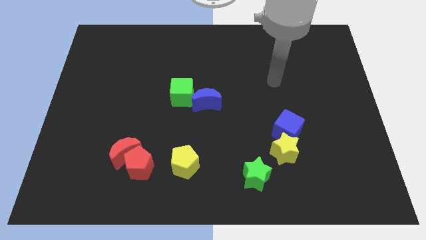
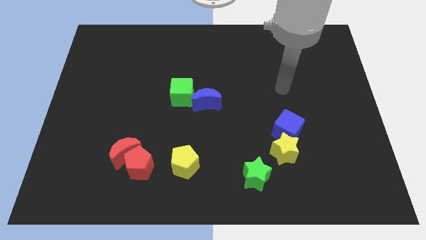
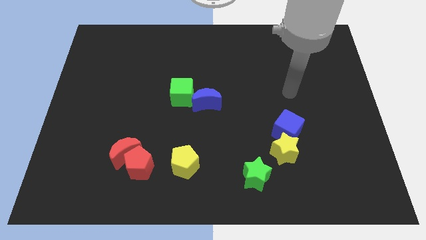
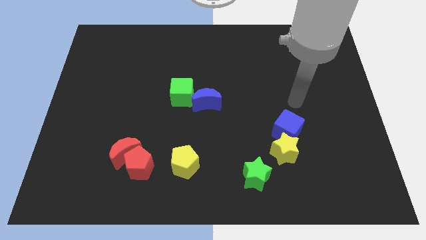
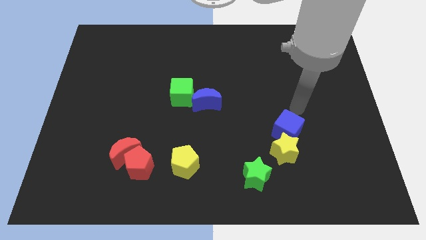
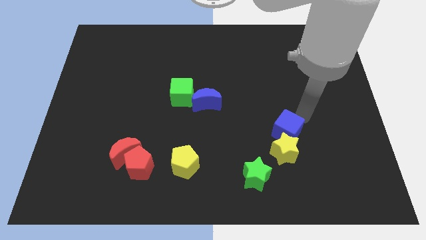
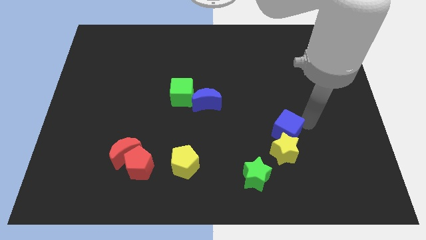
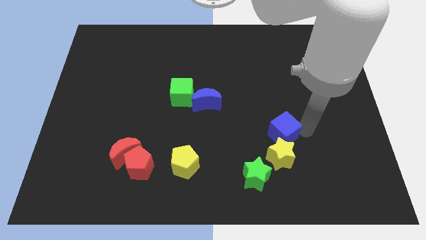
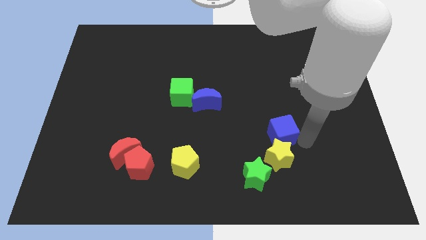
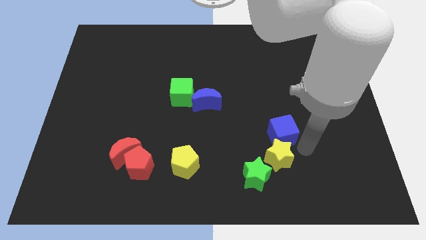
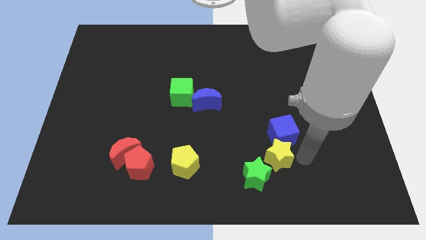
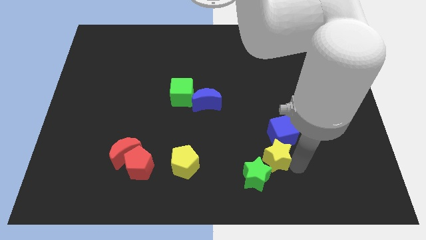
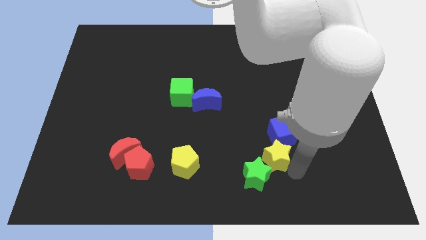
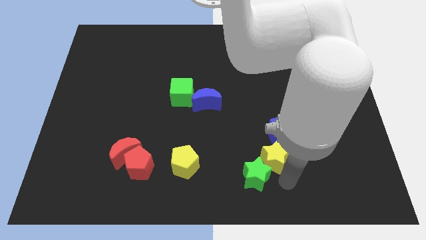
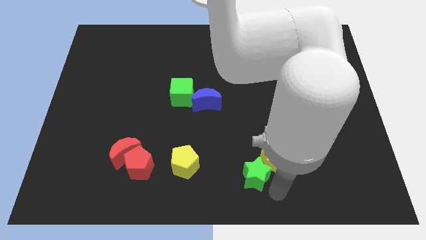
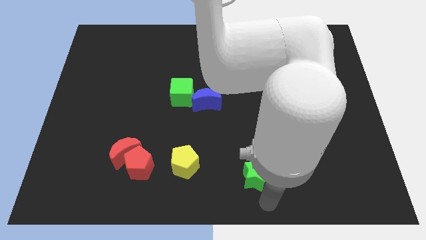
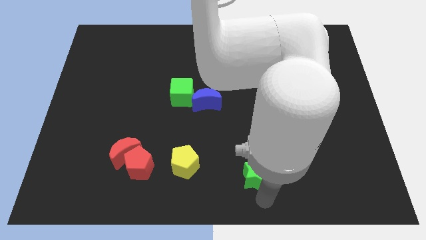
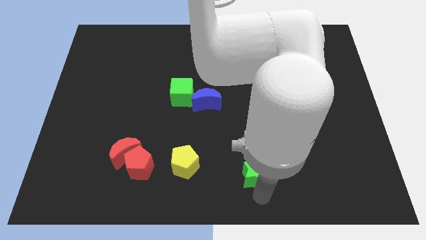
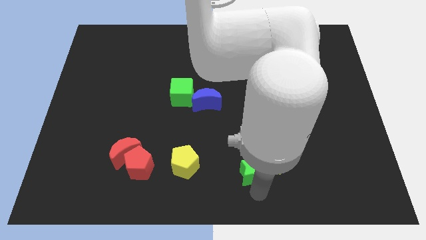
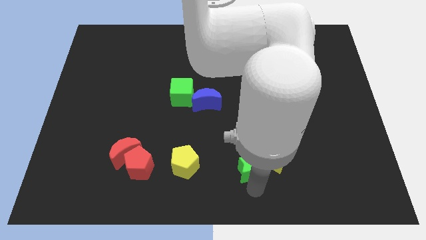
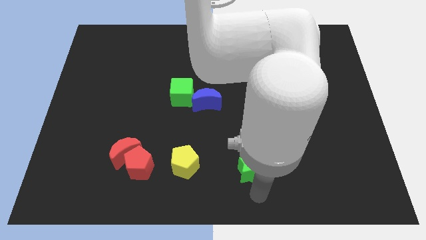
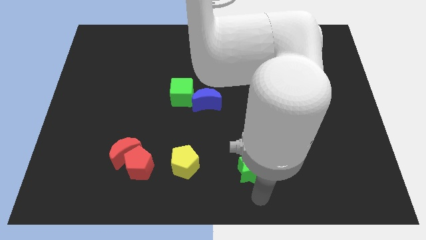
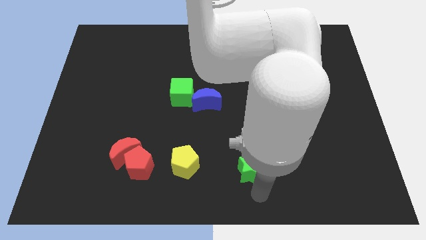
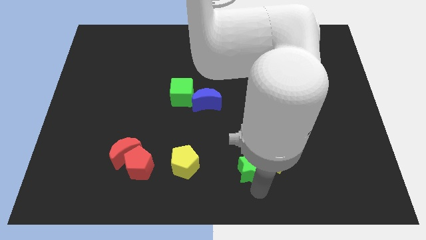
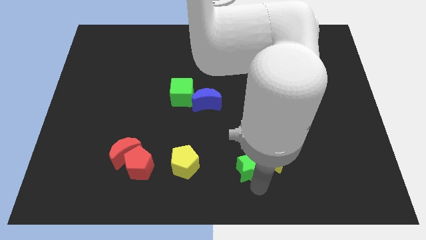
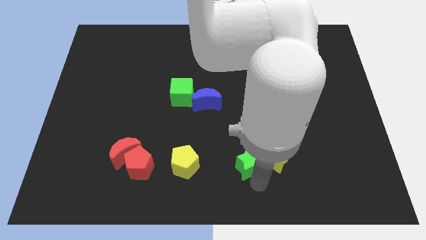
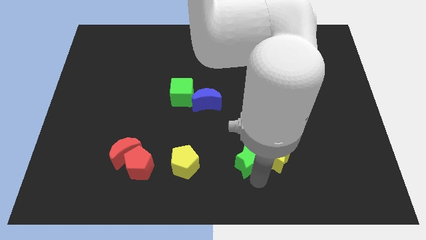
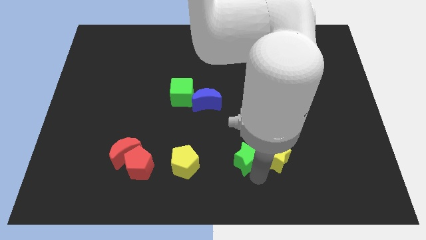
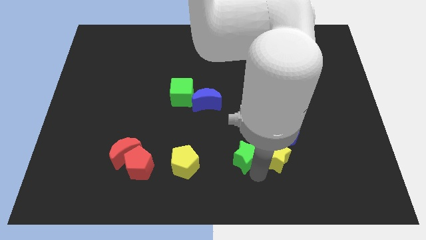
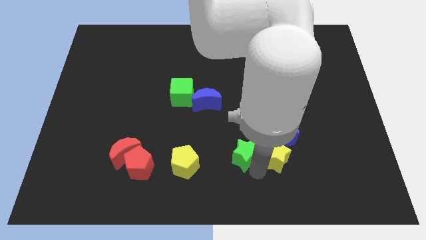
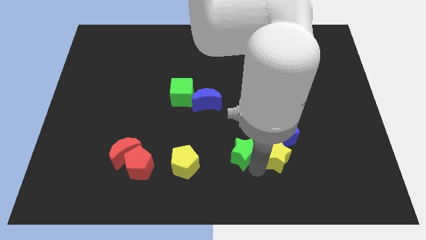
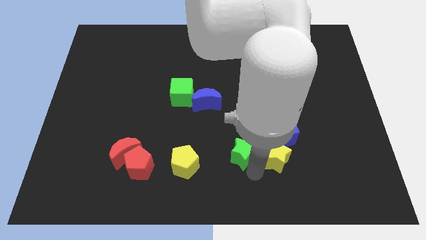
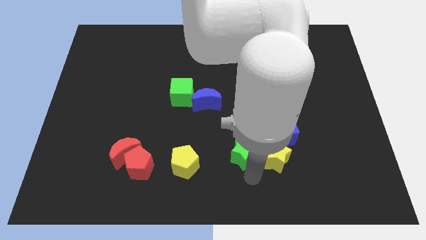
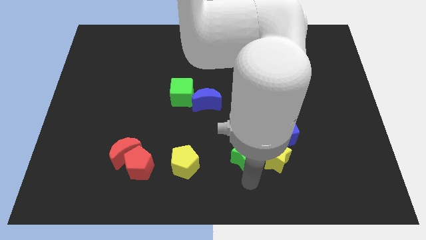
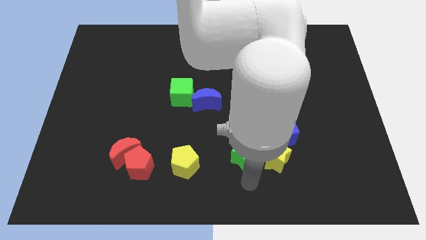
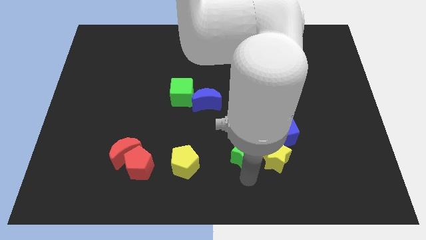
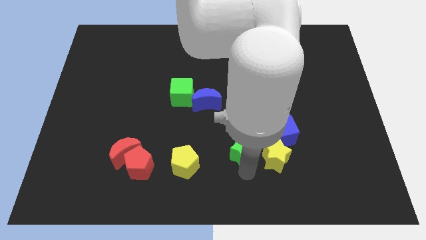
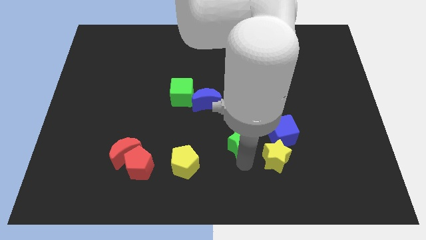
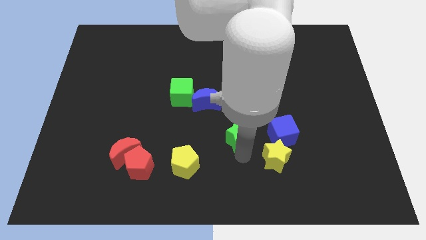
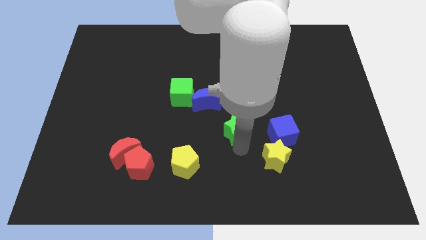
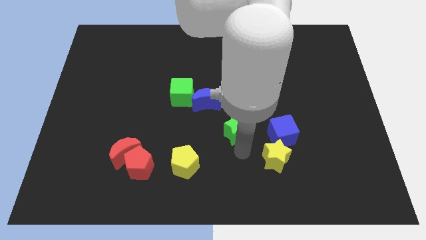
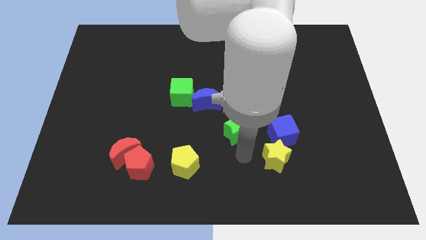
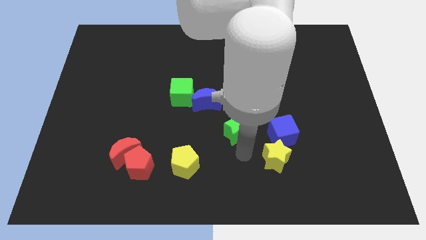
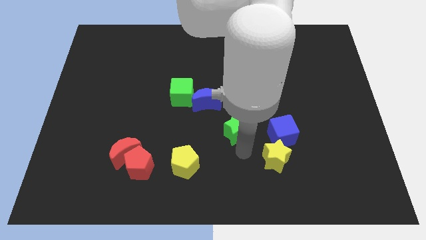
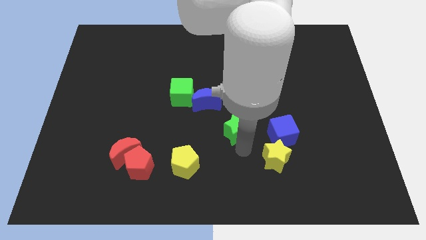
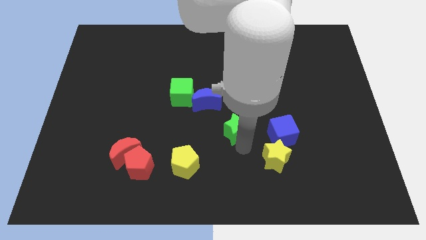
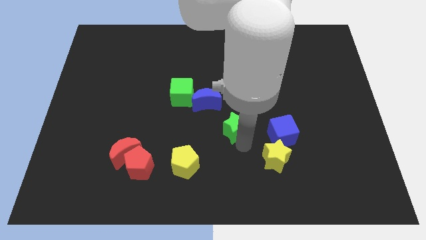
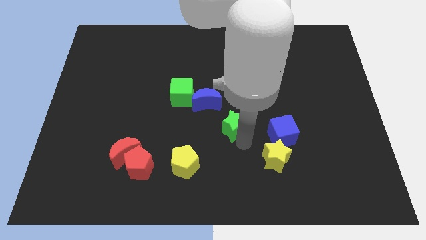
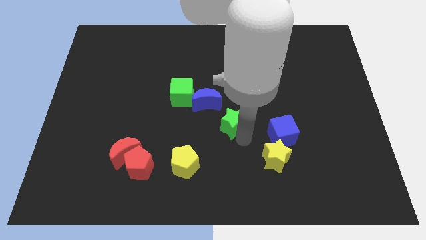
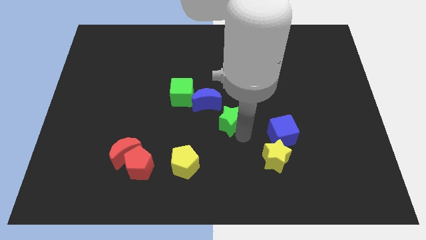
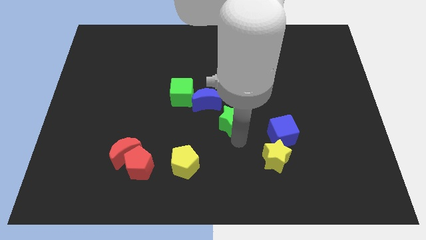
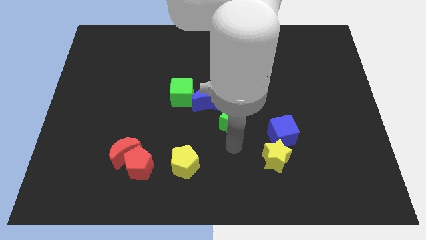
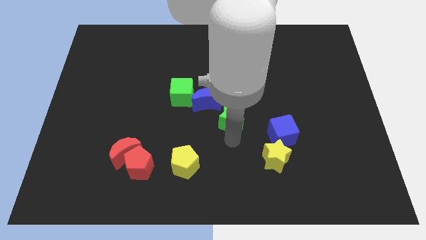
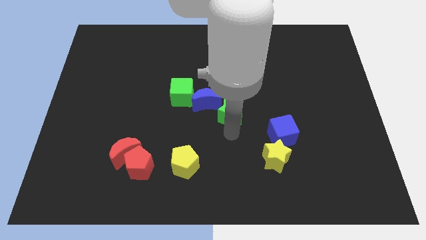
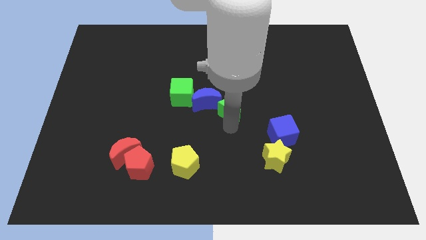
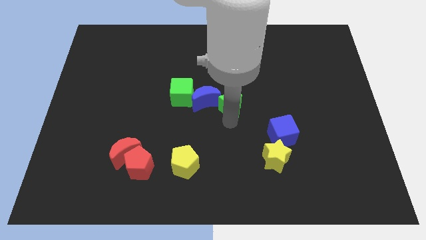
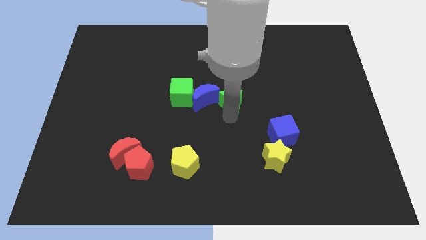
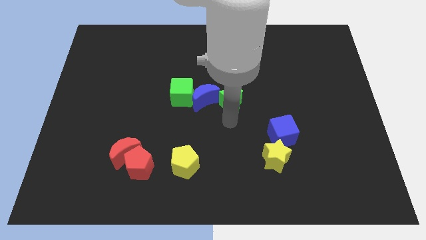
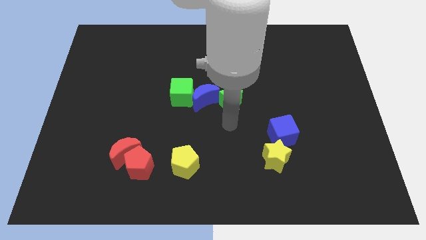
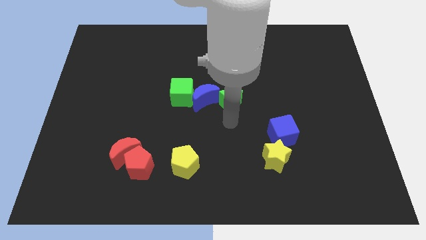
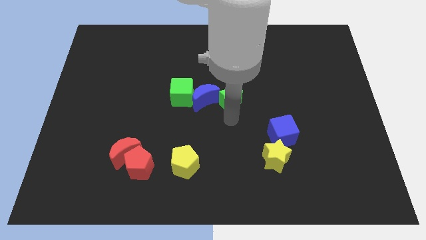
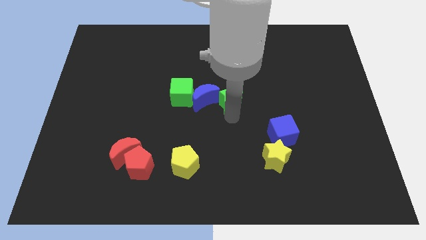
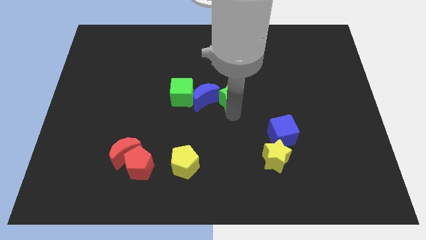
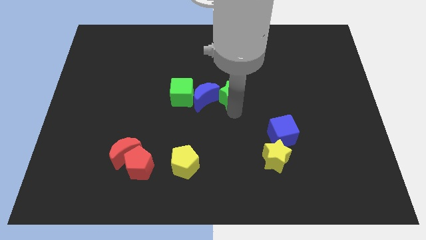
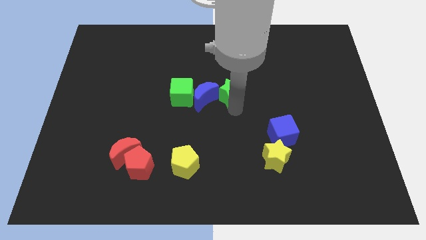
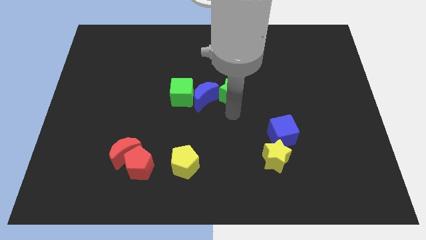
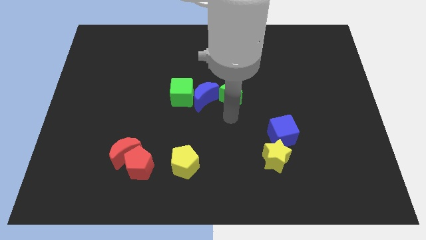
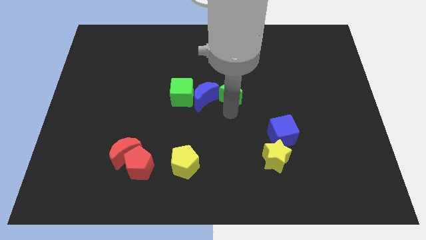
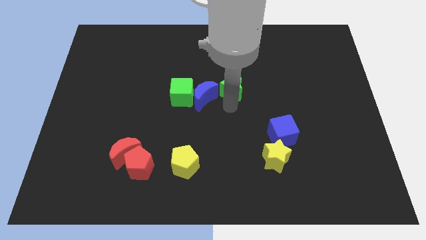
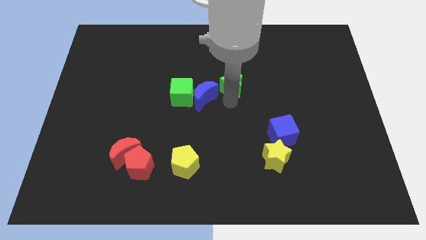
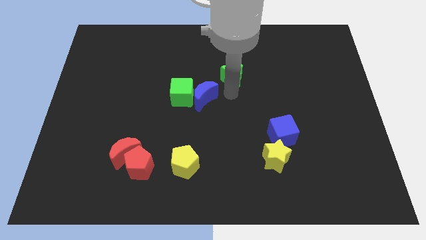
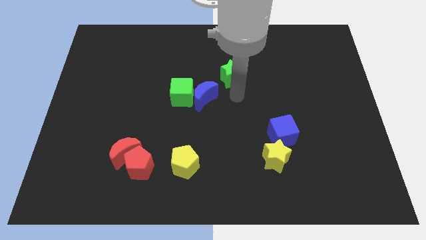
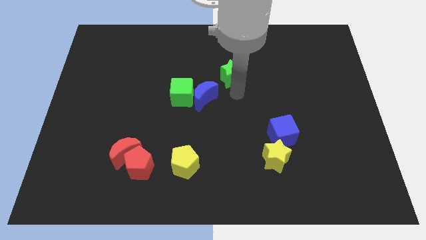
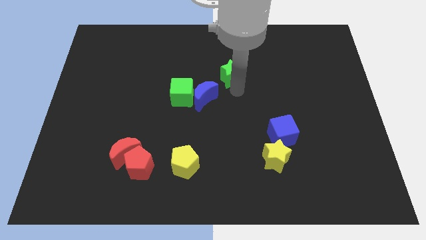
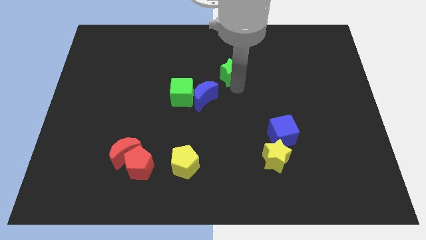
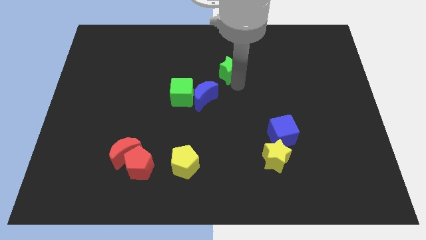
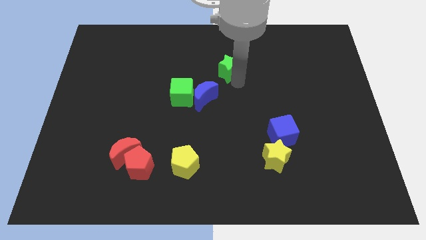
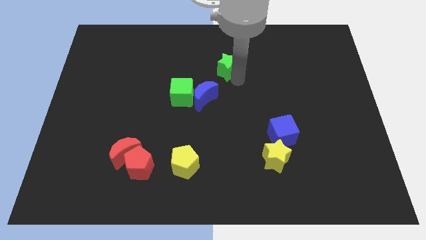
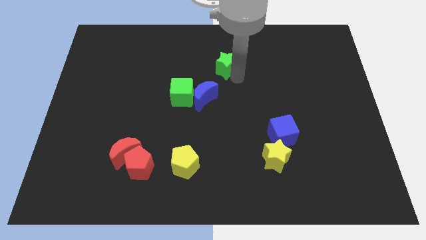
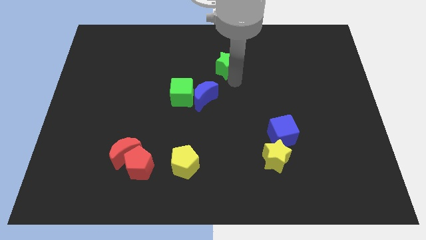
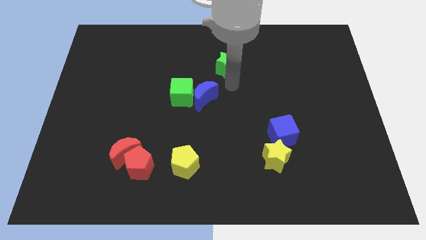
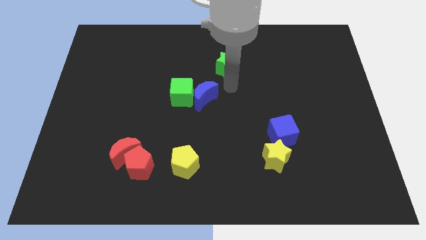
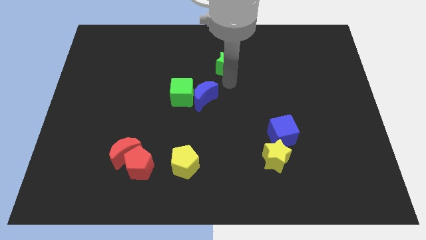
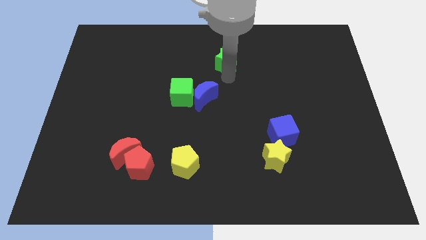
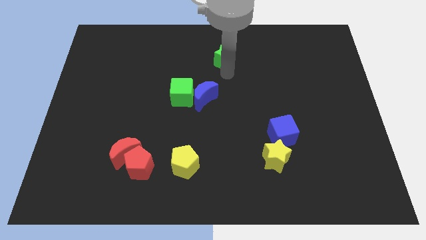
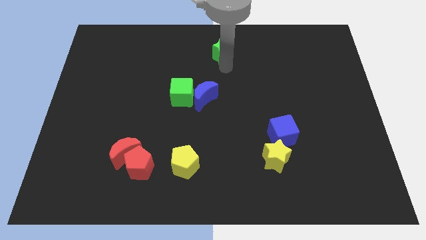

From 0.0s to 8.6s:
put the green star to the top side
